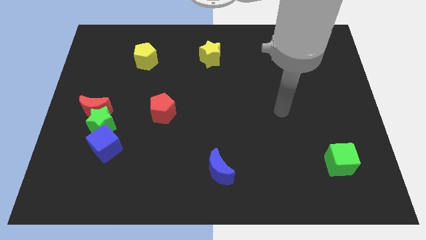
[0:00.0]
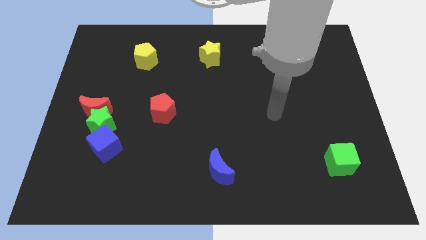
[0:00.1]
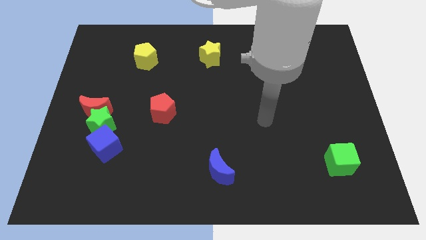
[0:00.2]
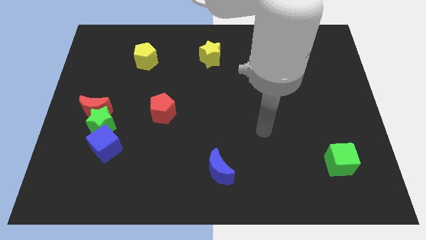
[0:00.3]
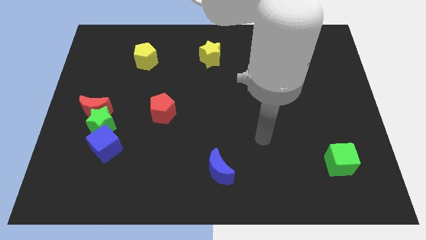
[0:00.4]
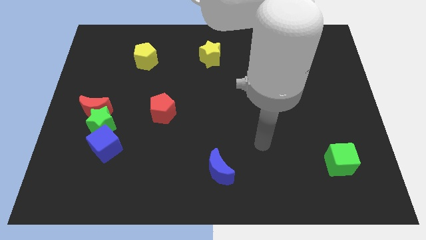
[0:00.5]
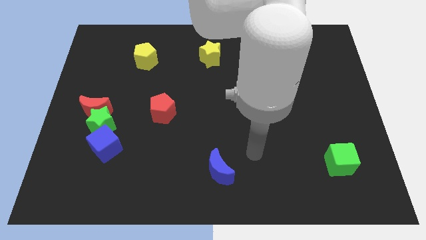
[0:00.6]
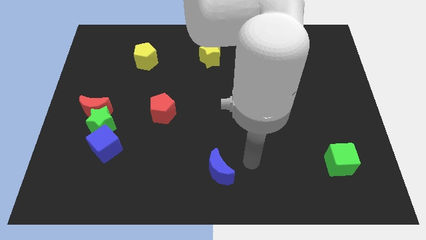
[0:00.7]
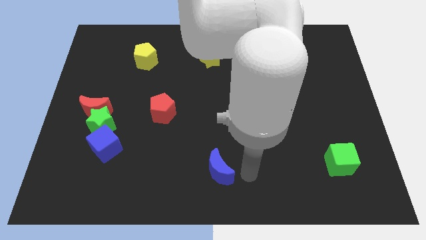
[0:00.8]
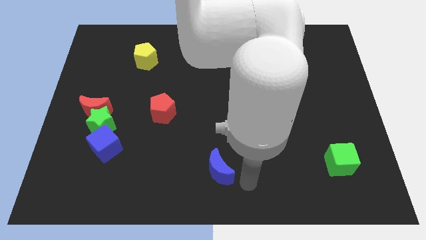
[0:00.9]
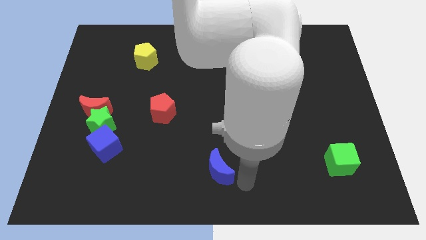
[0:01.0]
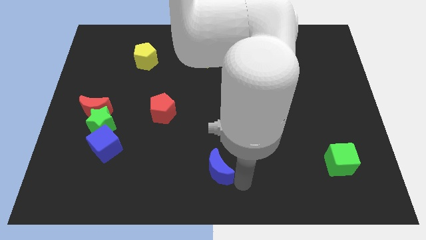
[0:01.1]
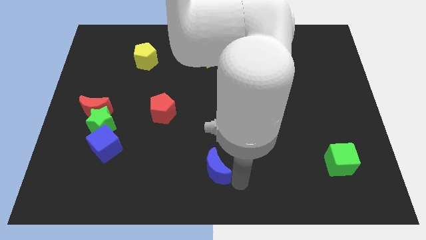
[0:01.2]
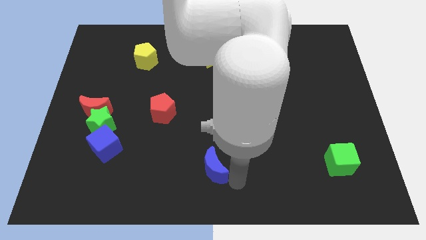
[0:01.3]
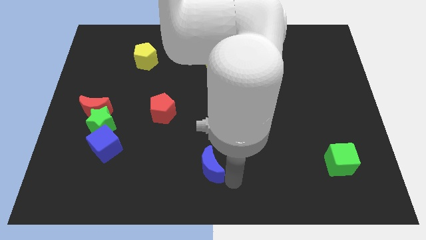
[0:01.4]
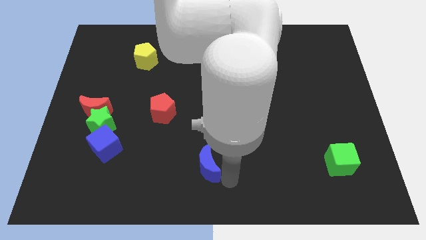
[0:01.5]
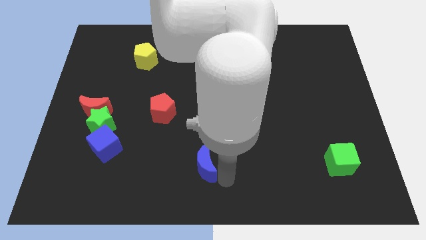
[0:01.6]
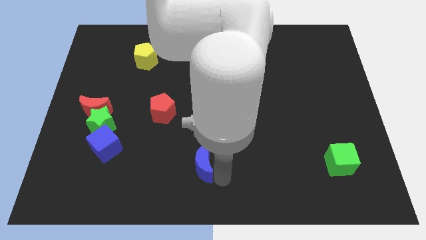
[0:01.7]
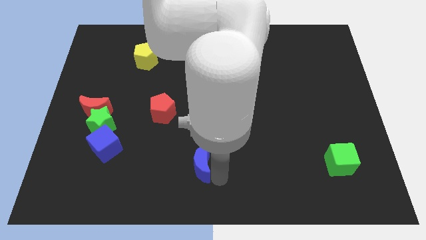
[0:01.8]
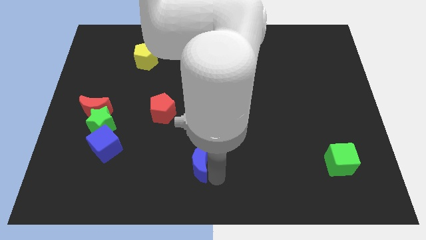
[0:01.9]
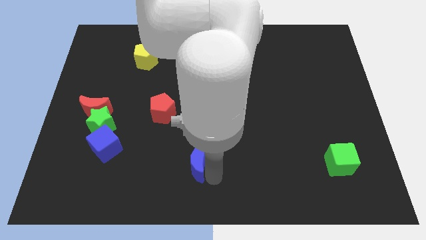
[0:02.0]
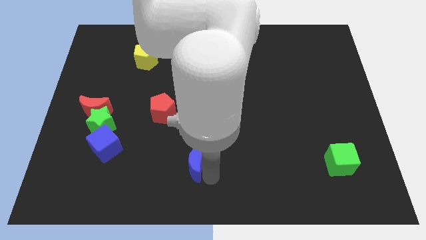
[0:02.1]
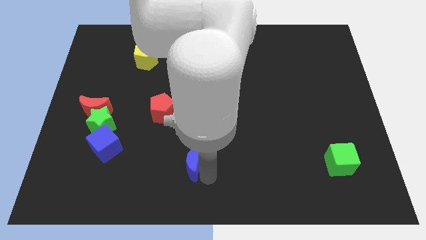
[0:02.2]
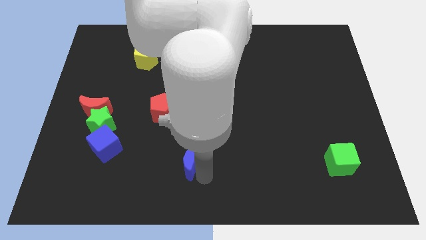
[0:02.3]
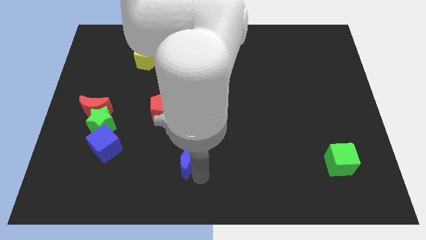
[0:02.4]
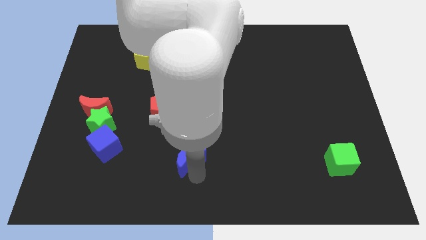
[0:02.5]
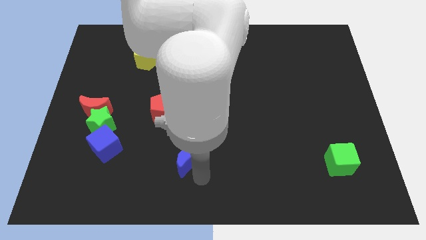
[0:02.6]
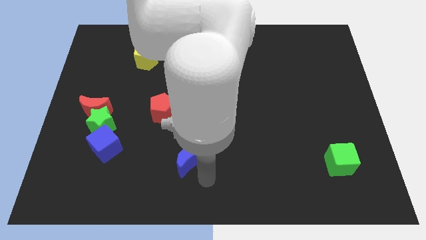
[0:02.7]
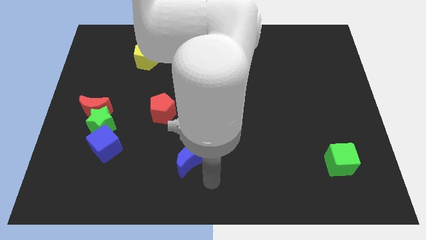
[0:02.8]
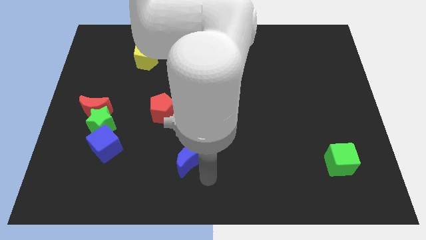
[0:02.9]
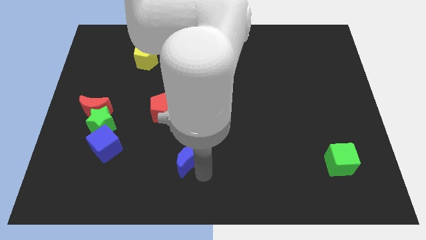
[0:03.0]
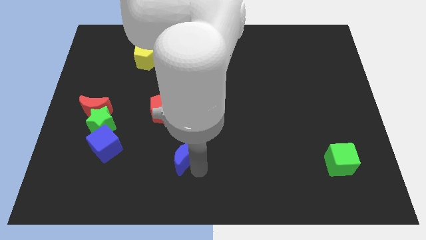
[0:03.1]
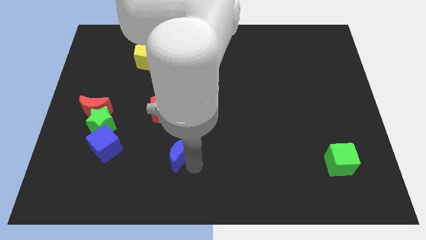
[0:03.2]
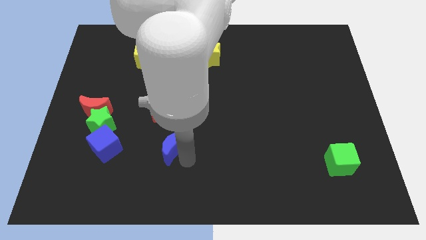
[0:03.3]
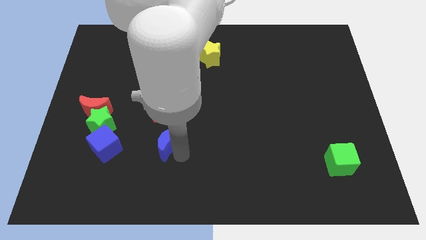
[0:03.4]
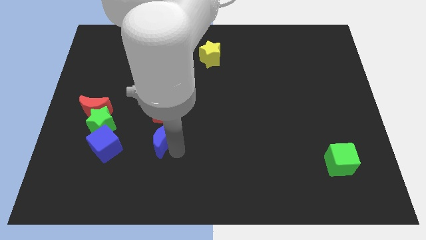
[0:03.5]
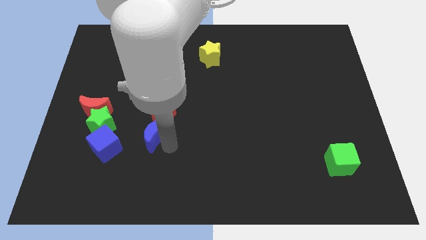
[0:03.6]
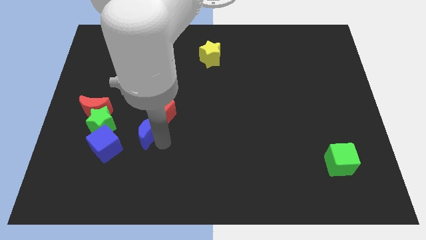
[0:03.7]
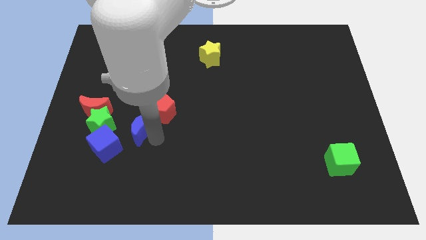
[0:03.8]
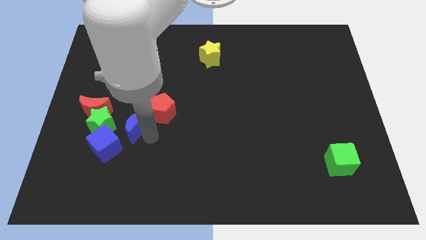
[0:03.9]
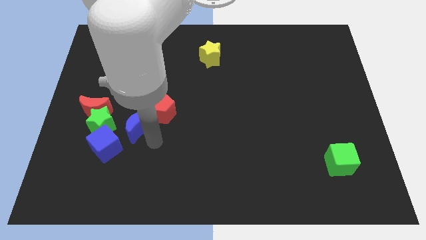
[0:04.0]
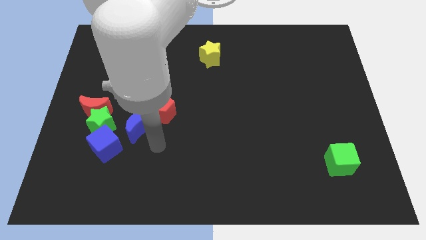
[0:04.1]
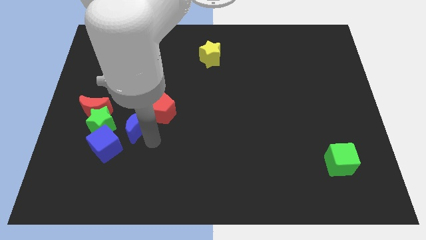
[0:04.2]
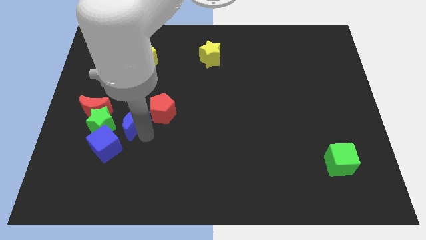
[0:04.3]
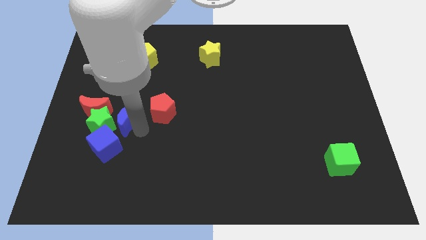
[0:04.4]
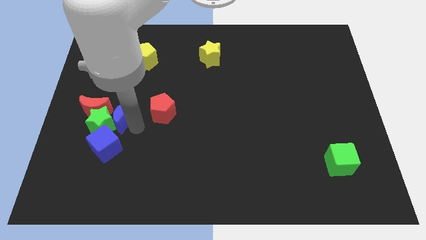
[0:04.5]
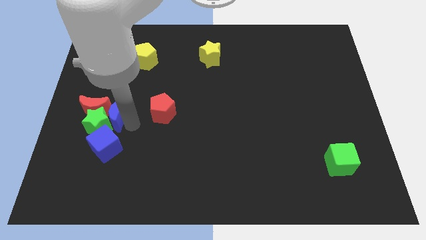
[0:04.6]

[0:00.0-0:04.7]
put the blue moon close to the red moon

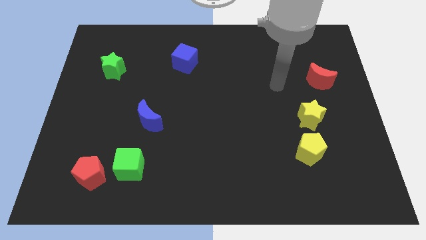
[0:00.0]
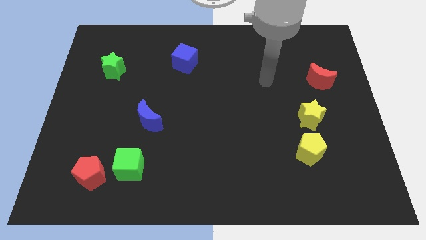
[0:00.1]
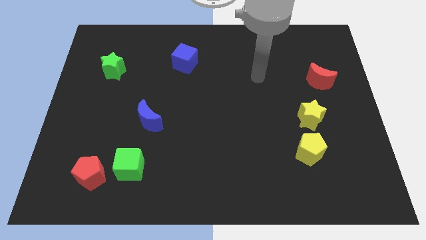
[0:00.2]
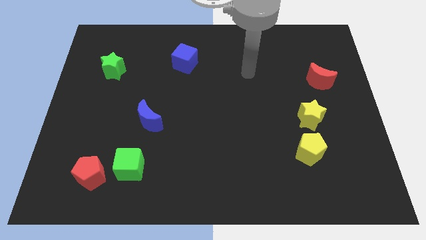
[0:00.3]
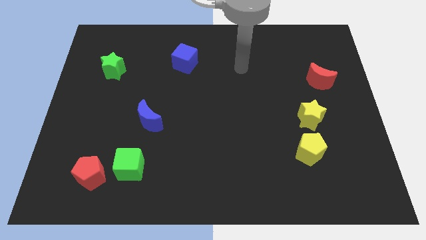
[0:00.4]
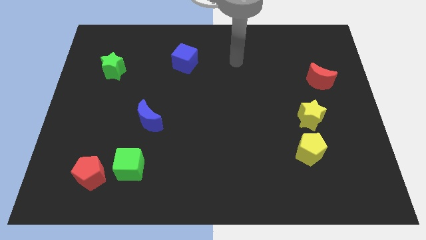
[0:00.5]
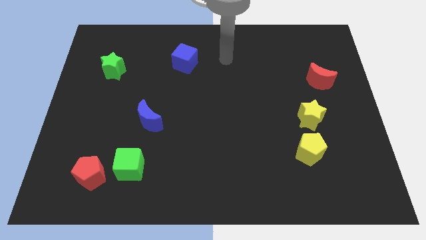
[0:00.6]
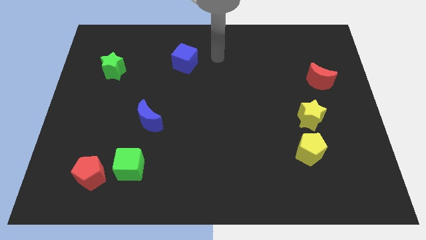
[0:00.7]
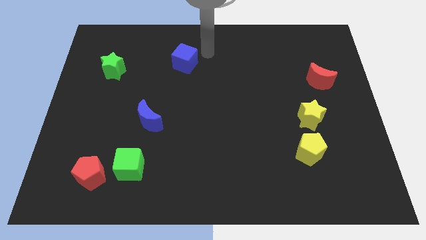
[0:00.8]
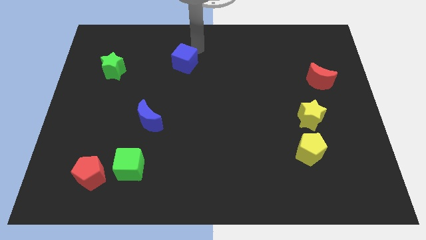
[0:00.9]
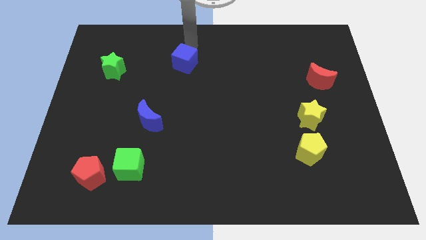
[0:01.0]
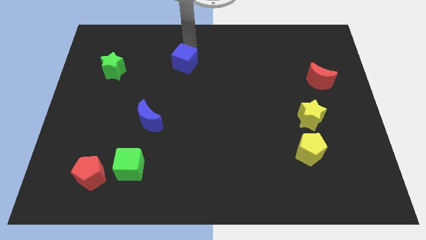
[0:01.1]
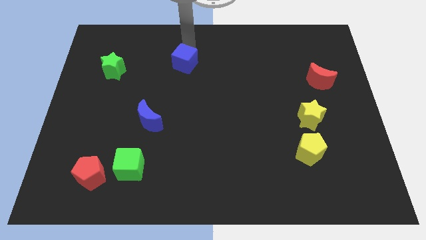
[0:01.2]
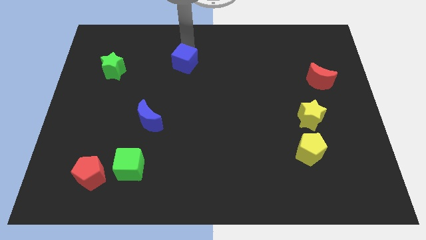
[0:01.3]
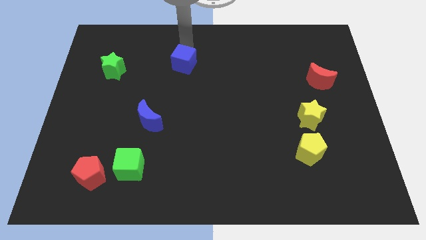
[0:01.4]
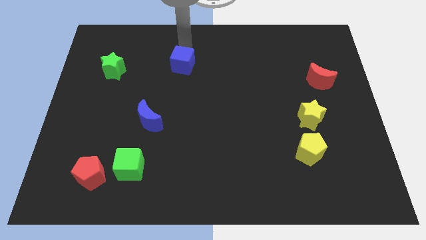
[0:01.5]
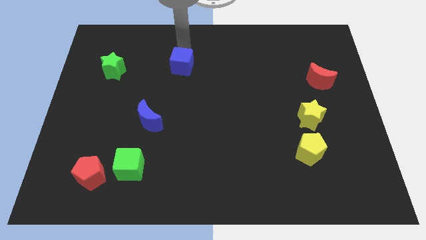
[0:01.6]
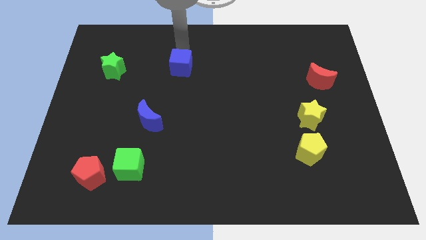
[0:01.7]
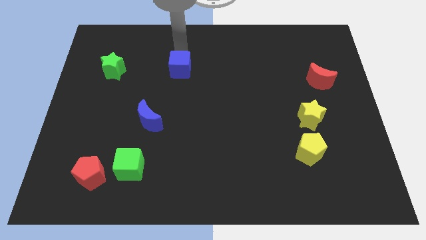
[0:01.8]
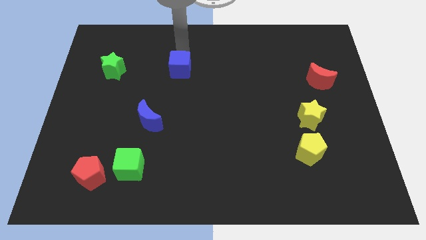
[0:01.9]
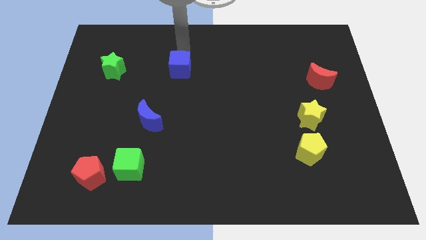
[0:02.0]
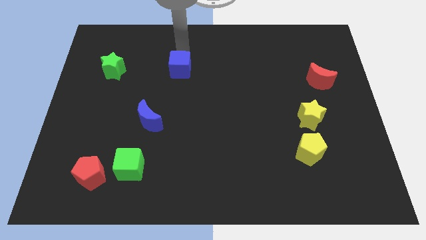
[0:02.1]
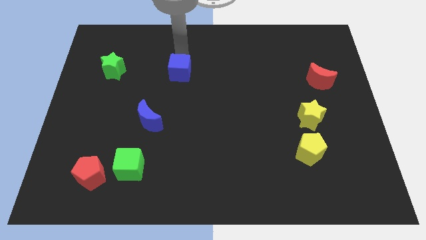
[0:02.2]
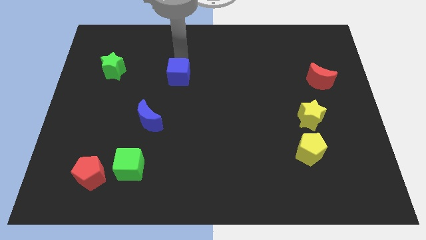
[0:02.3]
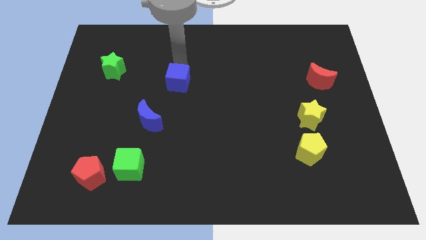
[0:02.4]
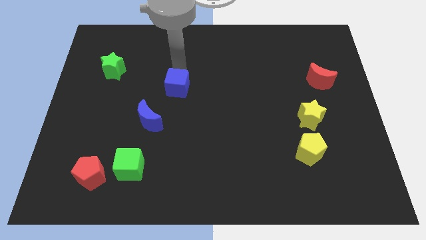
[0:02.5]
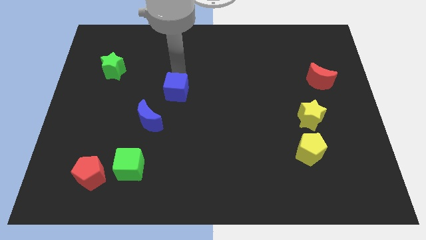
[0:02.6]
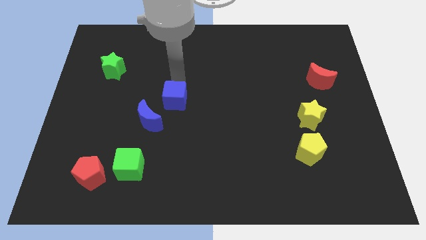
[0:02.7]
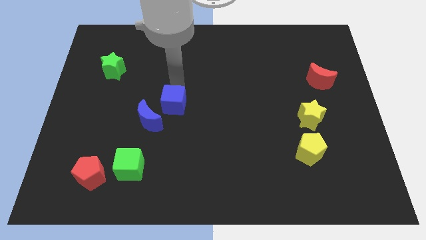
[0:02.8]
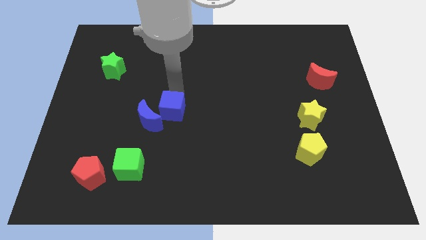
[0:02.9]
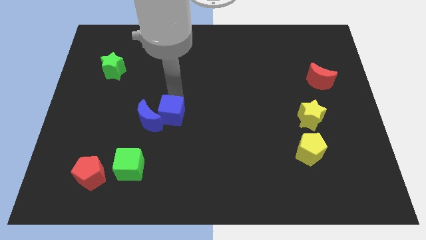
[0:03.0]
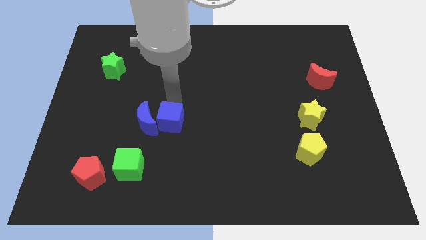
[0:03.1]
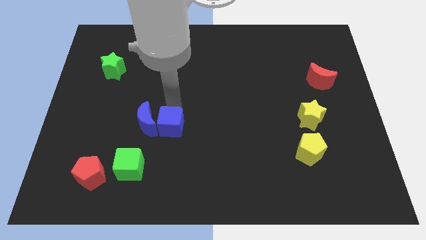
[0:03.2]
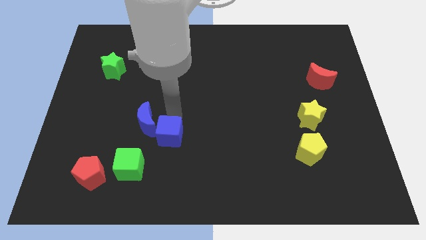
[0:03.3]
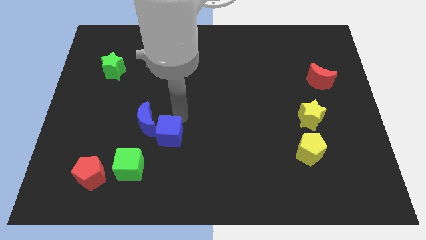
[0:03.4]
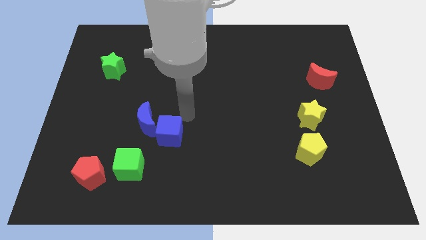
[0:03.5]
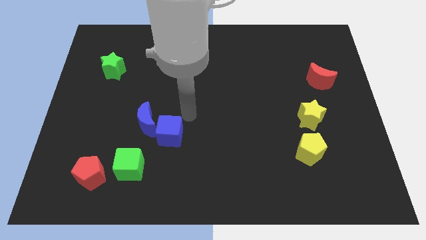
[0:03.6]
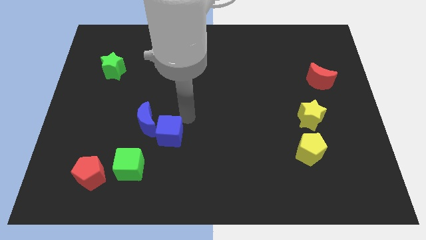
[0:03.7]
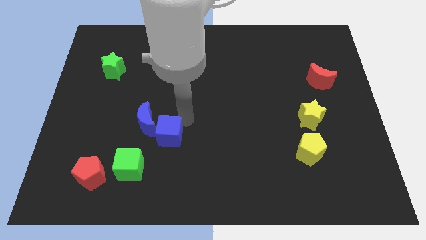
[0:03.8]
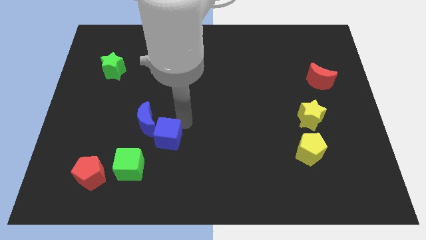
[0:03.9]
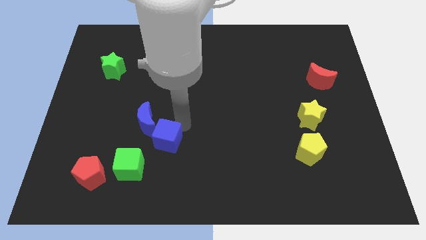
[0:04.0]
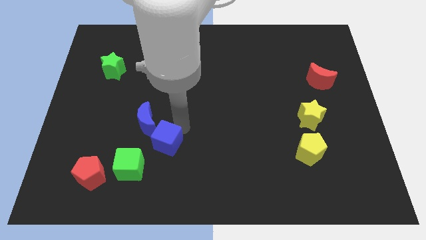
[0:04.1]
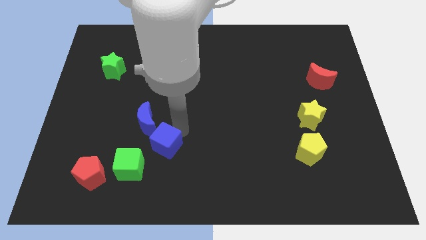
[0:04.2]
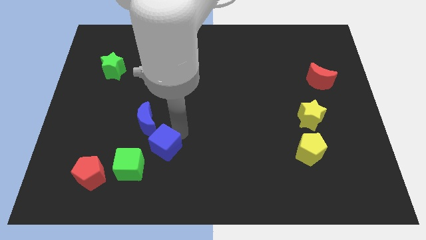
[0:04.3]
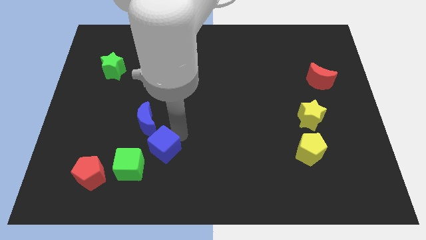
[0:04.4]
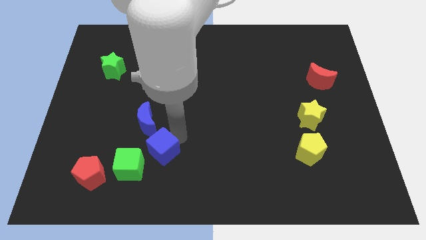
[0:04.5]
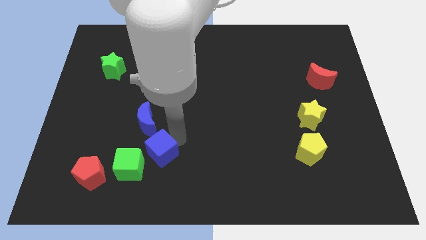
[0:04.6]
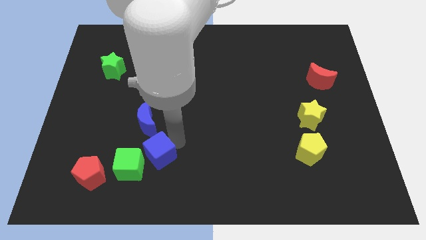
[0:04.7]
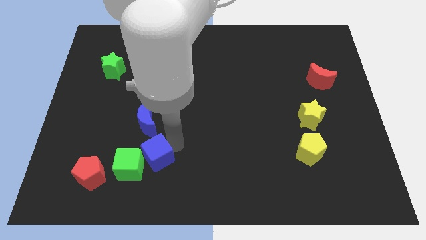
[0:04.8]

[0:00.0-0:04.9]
put the blue cube towards the green cube
